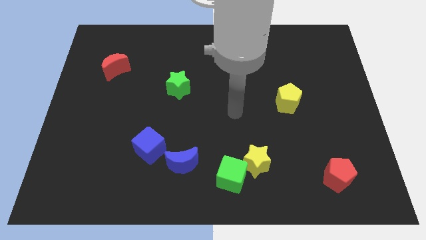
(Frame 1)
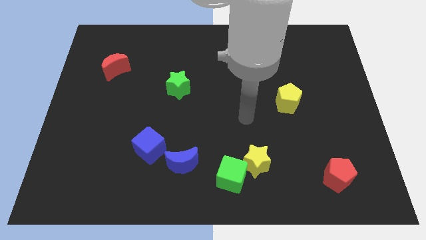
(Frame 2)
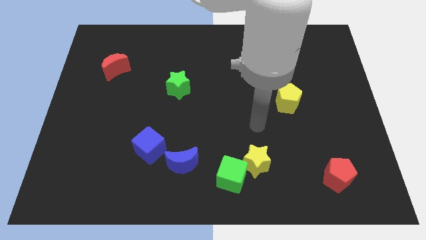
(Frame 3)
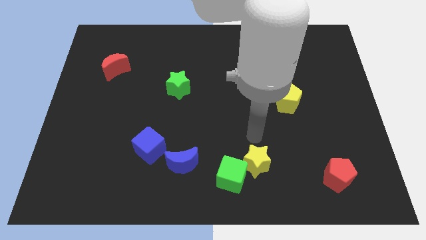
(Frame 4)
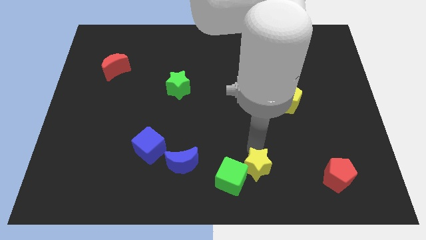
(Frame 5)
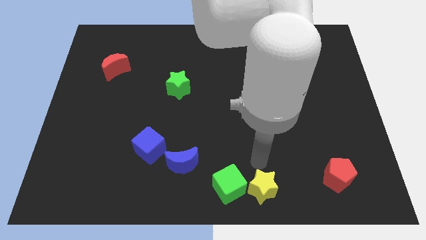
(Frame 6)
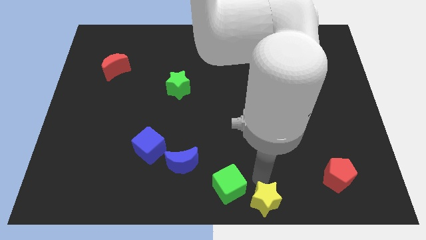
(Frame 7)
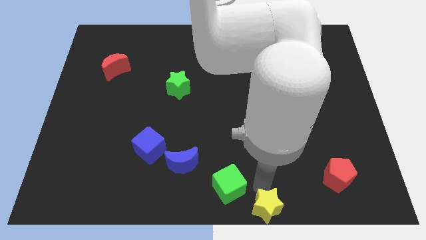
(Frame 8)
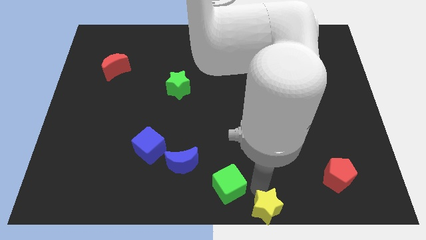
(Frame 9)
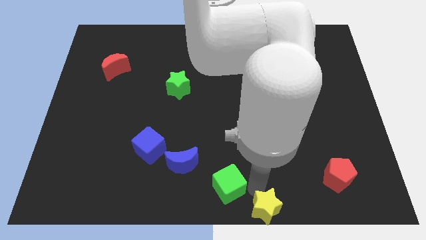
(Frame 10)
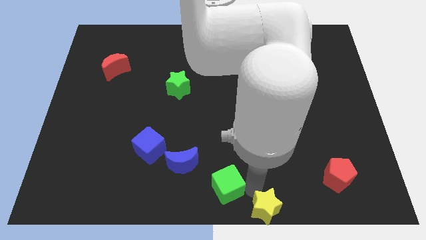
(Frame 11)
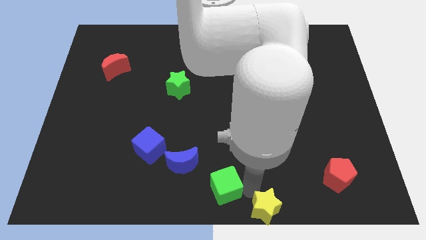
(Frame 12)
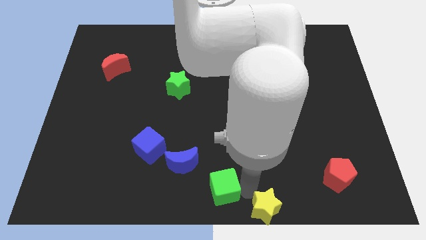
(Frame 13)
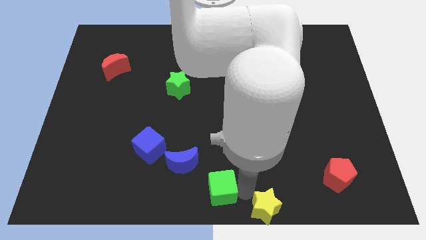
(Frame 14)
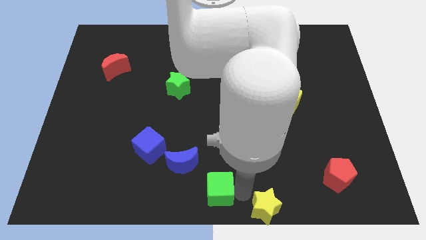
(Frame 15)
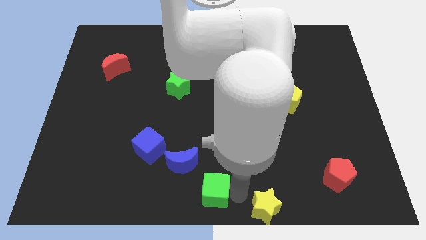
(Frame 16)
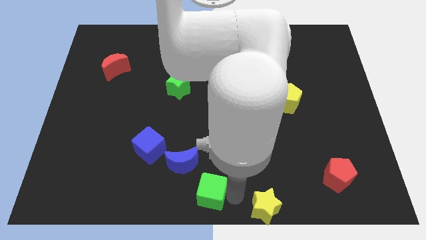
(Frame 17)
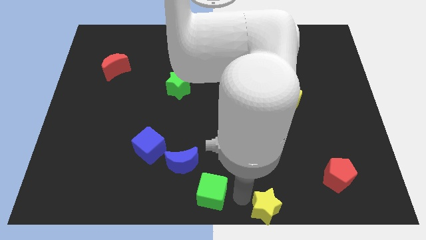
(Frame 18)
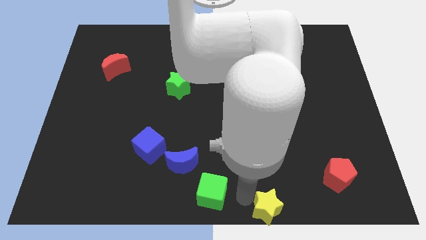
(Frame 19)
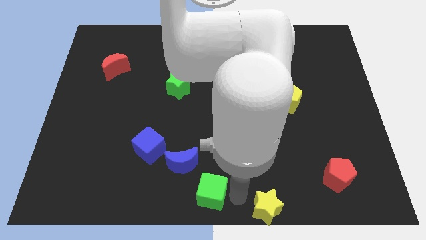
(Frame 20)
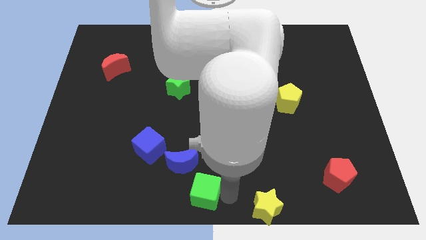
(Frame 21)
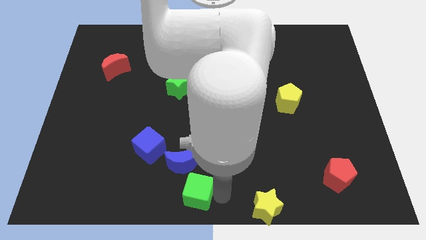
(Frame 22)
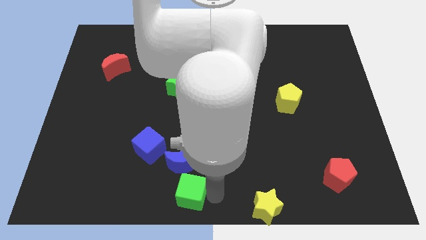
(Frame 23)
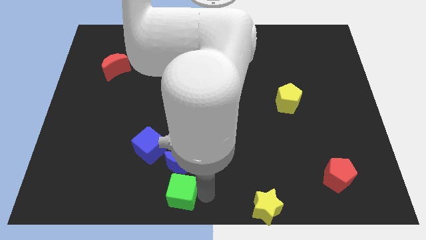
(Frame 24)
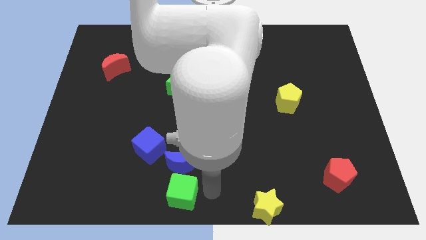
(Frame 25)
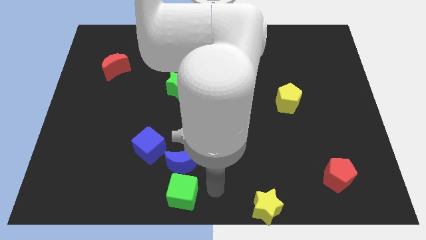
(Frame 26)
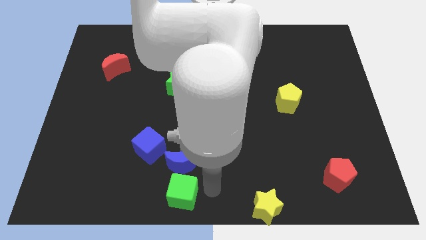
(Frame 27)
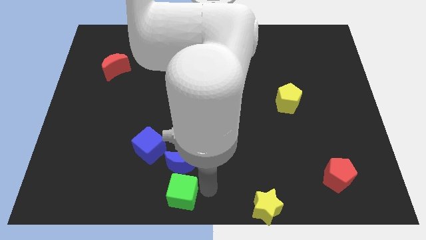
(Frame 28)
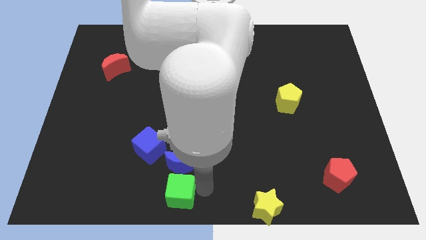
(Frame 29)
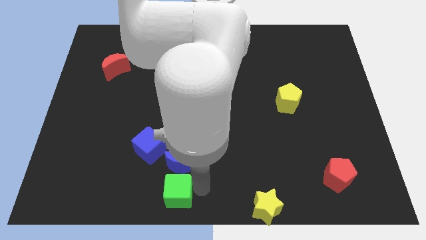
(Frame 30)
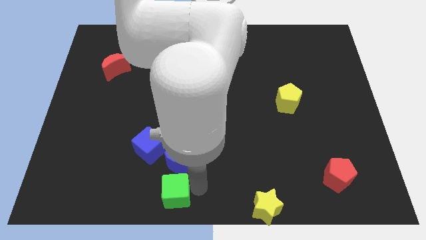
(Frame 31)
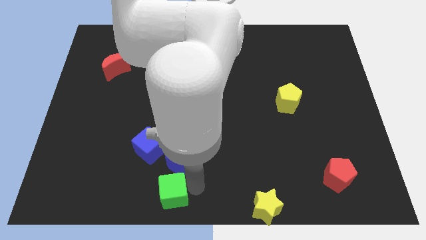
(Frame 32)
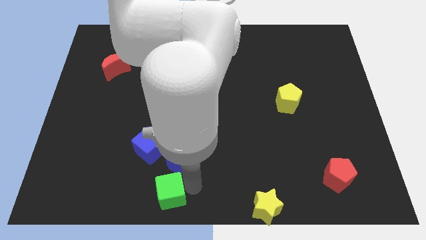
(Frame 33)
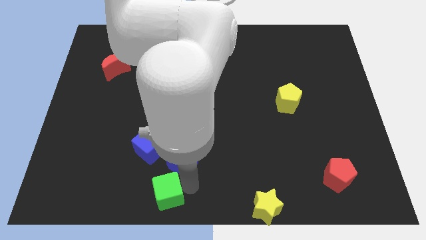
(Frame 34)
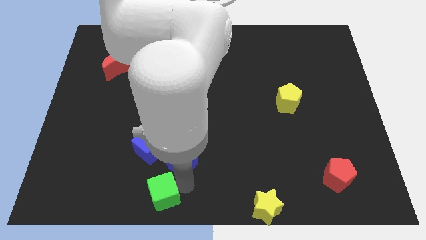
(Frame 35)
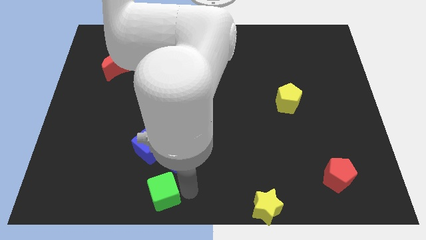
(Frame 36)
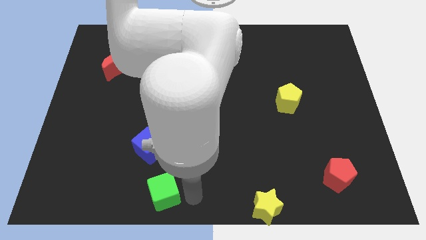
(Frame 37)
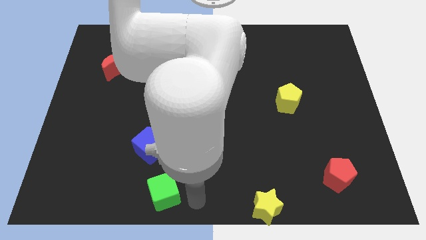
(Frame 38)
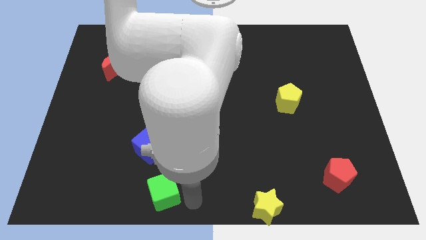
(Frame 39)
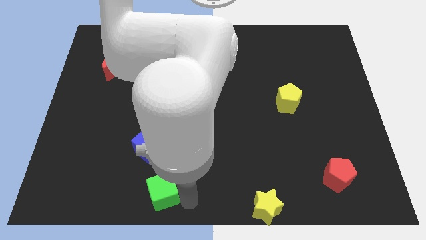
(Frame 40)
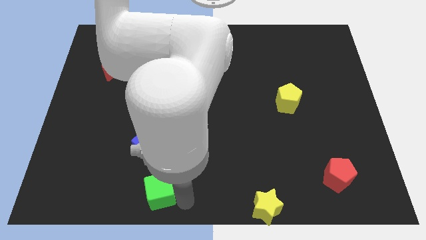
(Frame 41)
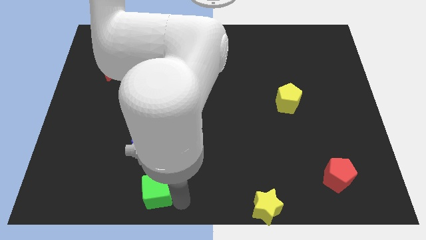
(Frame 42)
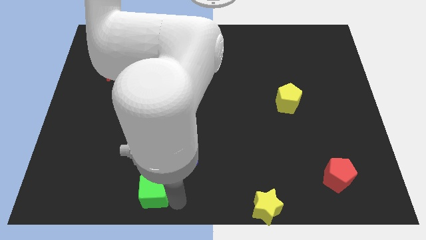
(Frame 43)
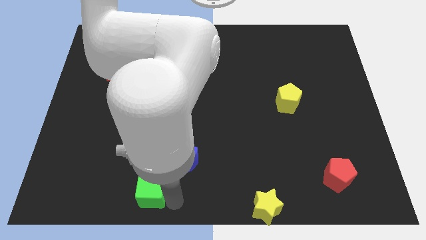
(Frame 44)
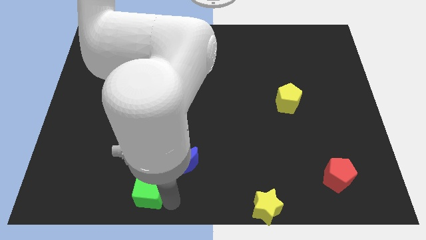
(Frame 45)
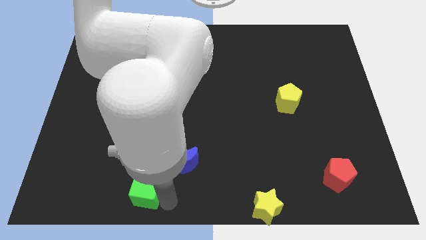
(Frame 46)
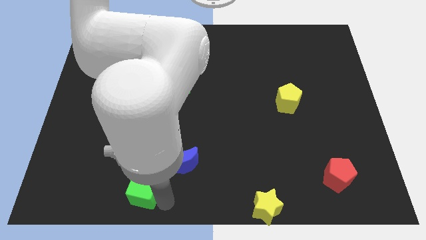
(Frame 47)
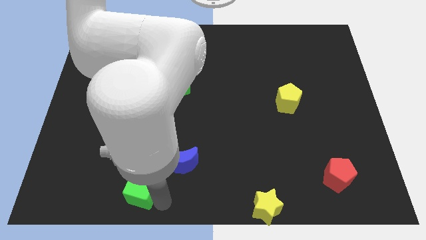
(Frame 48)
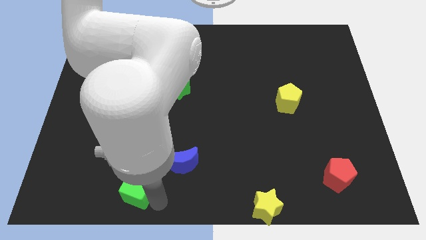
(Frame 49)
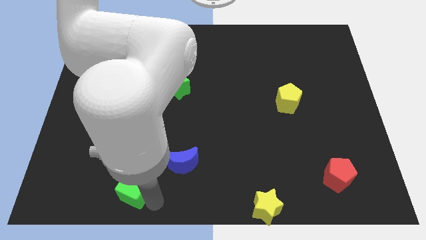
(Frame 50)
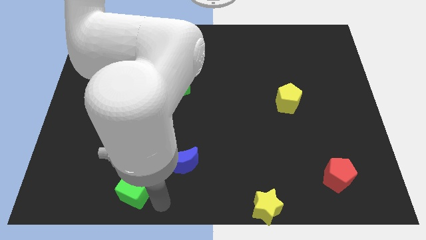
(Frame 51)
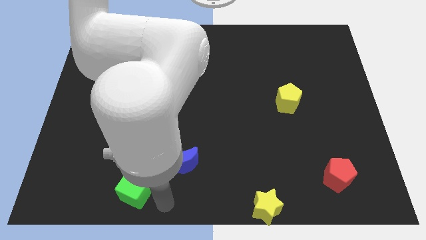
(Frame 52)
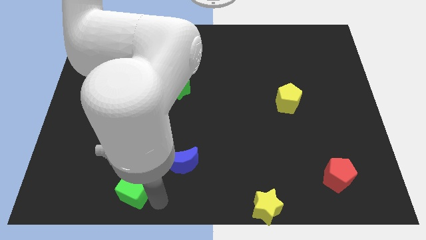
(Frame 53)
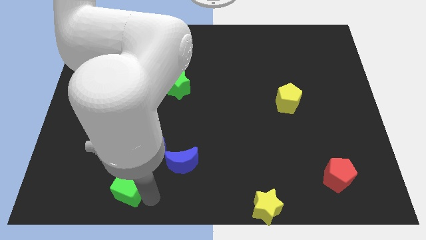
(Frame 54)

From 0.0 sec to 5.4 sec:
slide the green cube left

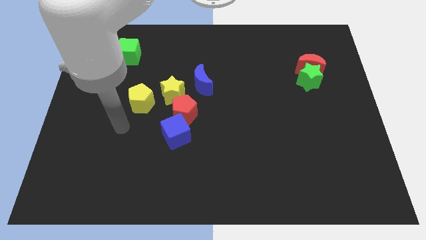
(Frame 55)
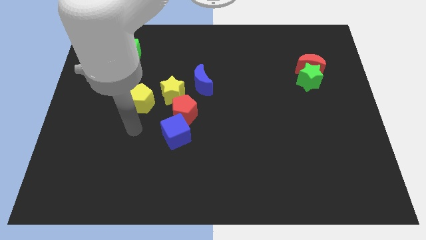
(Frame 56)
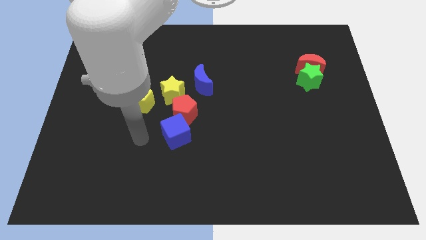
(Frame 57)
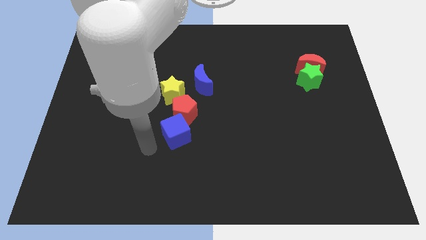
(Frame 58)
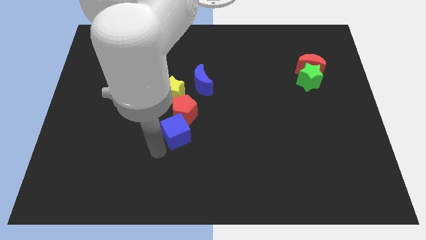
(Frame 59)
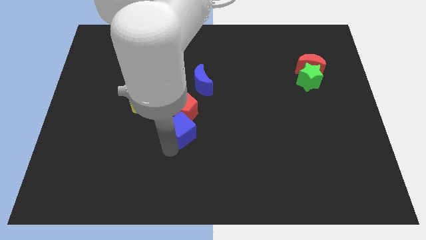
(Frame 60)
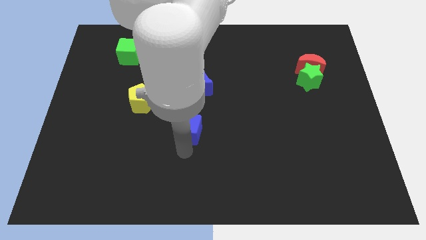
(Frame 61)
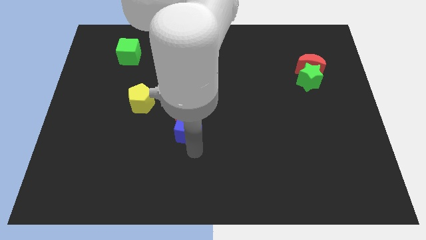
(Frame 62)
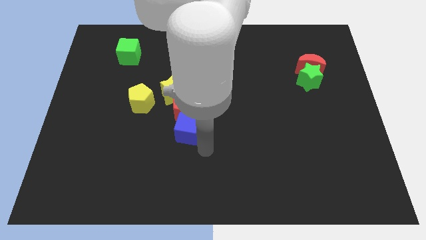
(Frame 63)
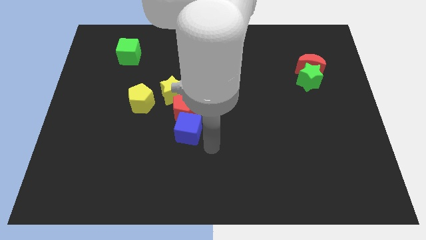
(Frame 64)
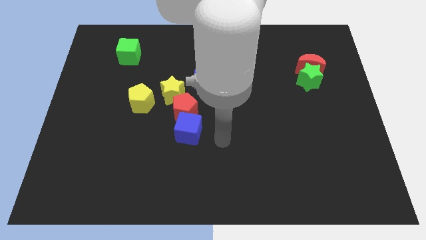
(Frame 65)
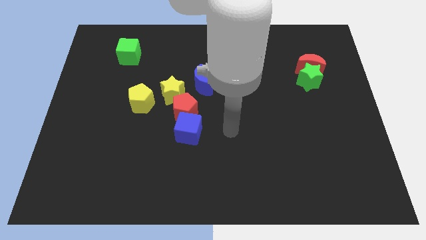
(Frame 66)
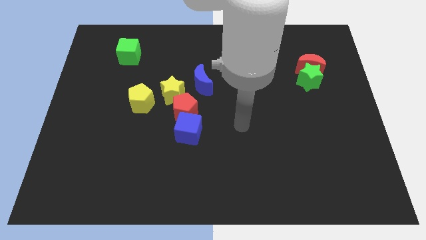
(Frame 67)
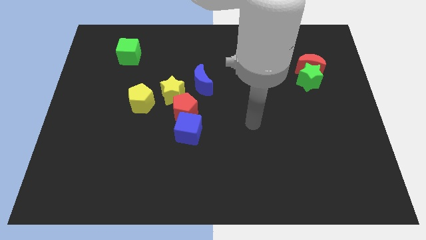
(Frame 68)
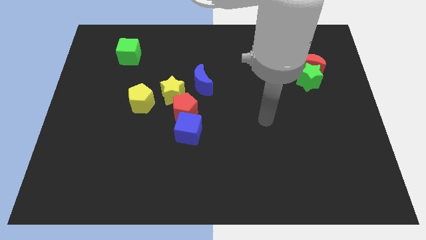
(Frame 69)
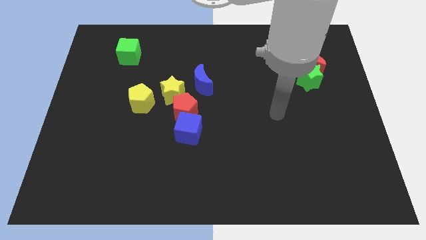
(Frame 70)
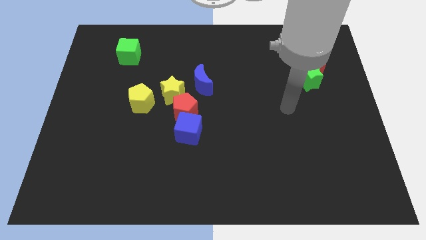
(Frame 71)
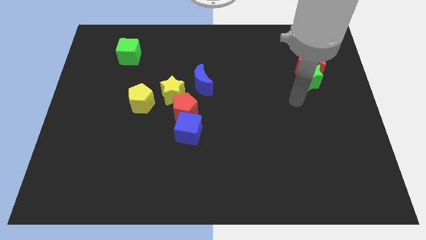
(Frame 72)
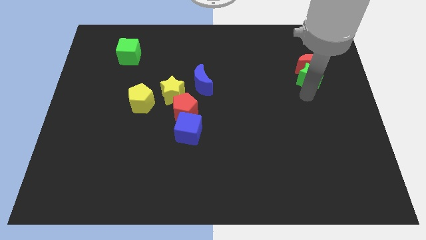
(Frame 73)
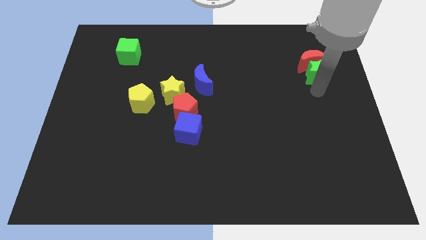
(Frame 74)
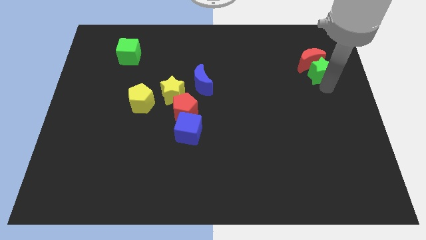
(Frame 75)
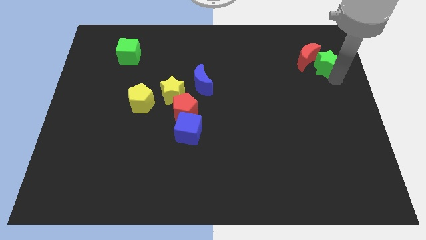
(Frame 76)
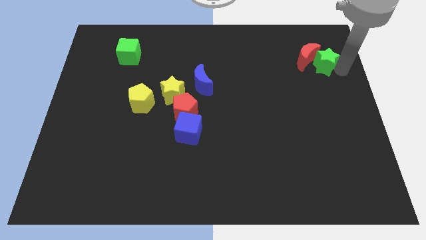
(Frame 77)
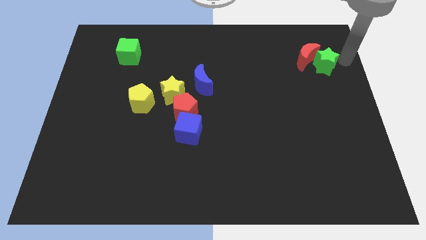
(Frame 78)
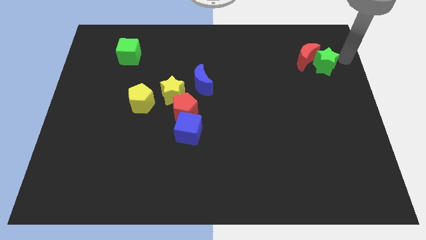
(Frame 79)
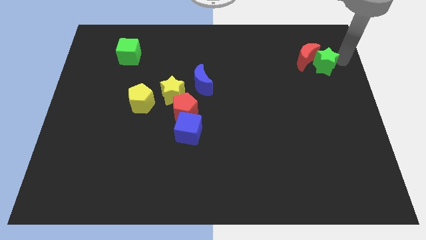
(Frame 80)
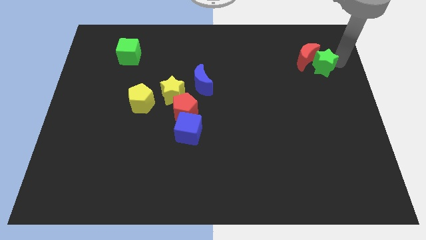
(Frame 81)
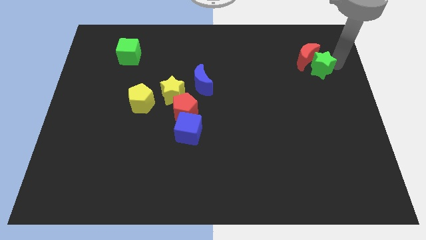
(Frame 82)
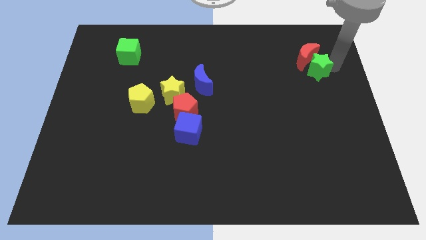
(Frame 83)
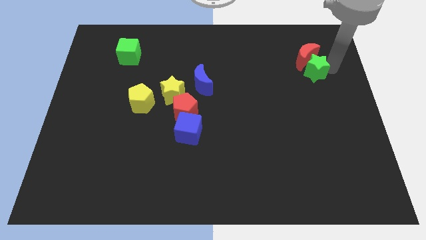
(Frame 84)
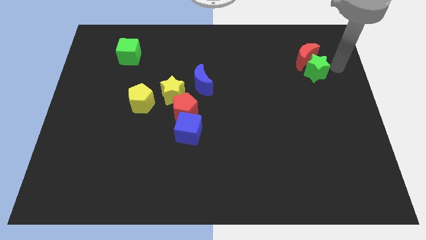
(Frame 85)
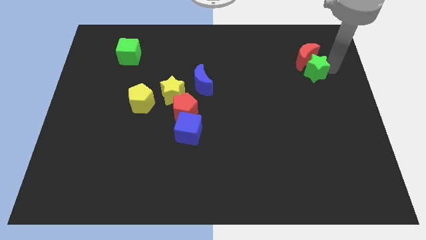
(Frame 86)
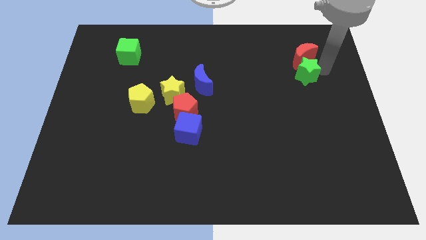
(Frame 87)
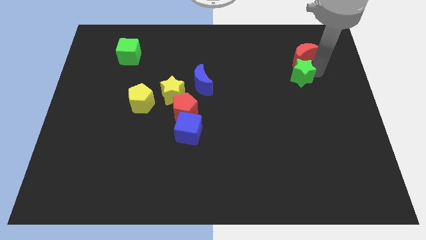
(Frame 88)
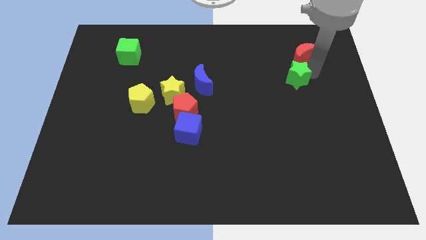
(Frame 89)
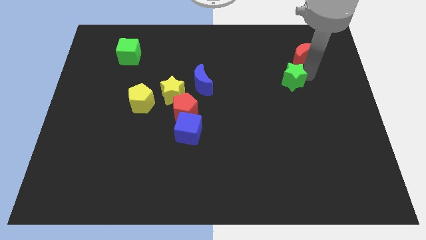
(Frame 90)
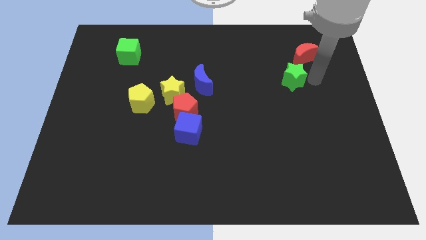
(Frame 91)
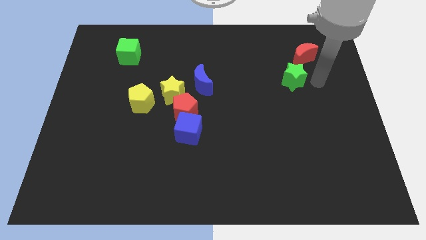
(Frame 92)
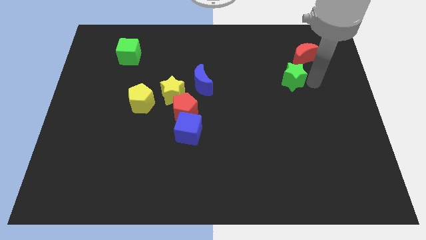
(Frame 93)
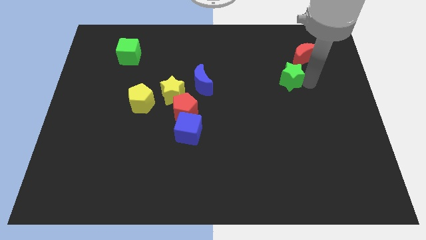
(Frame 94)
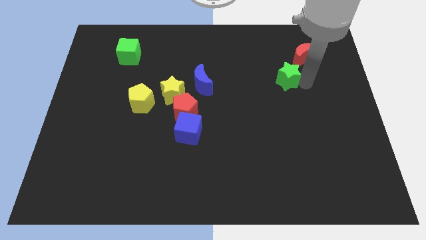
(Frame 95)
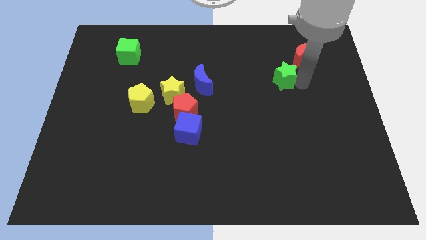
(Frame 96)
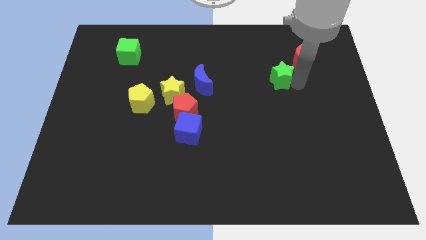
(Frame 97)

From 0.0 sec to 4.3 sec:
slightly push the green star left
